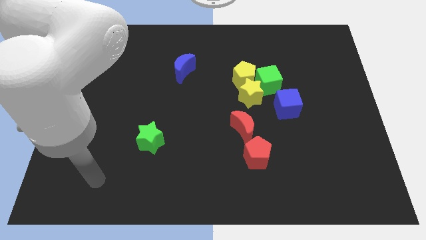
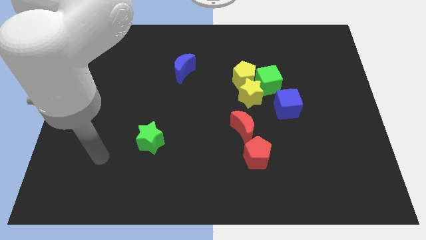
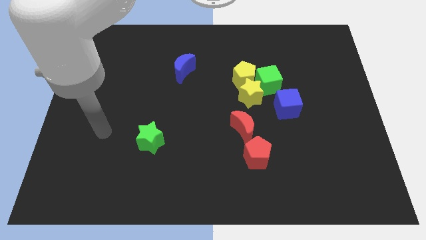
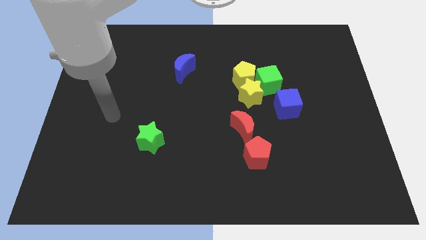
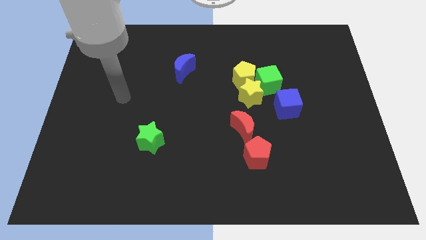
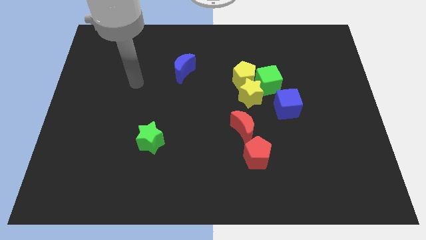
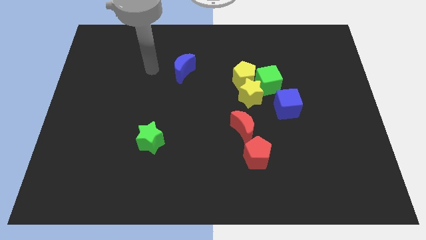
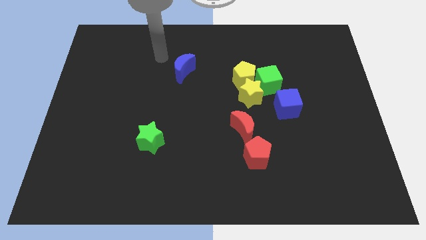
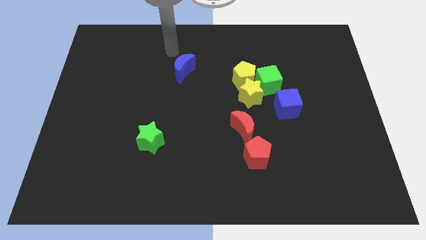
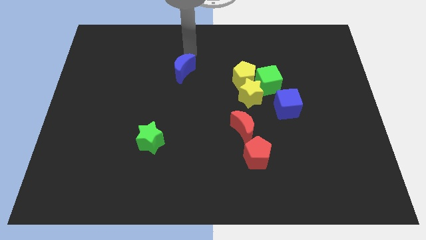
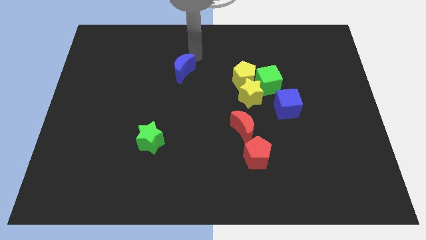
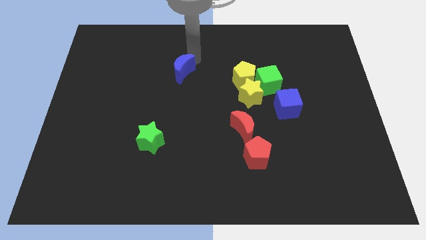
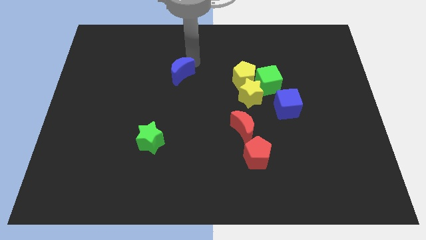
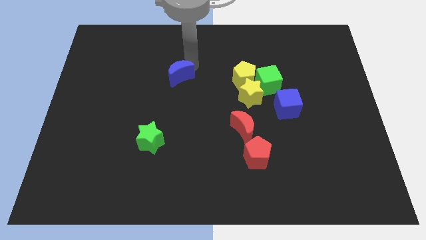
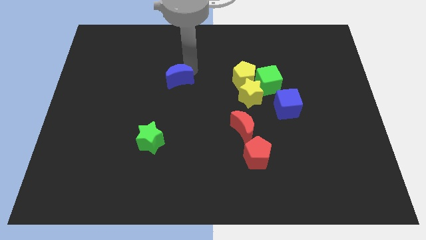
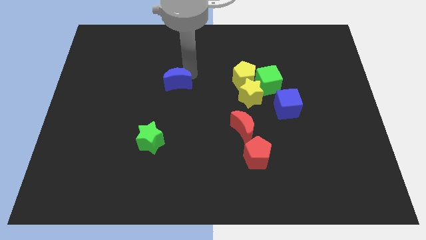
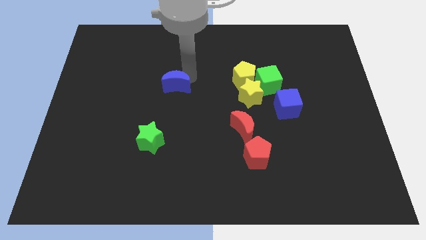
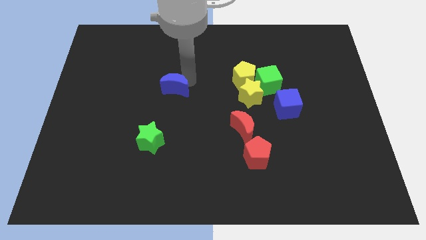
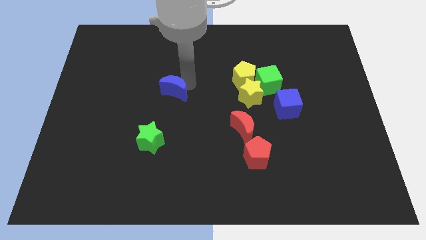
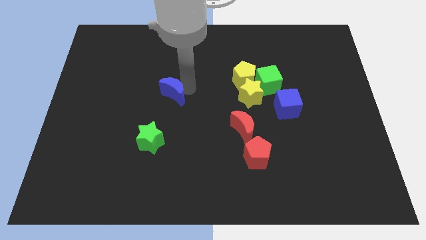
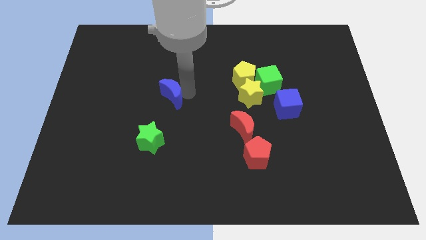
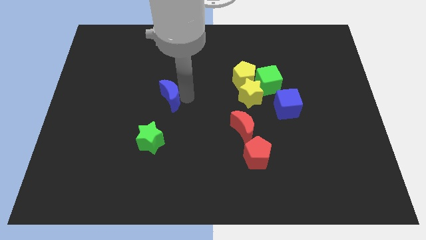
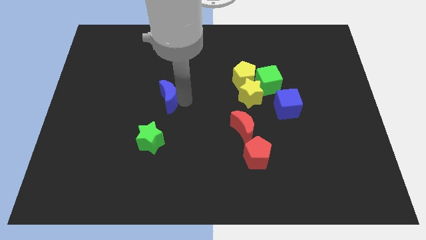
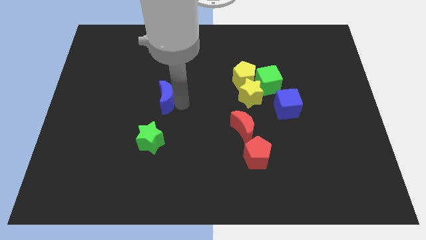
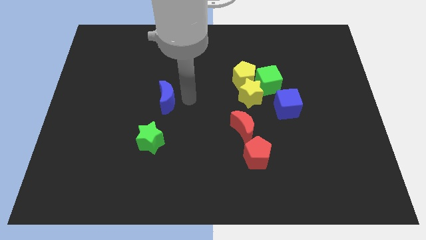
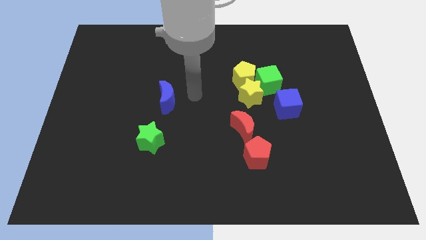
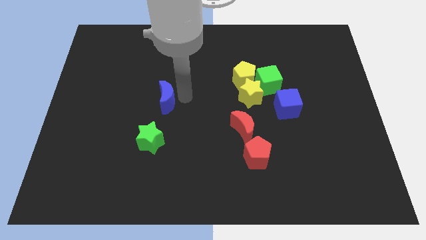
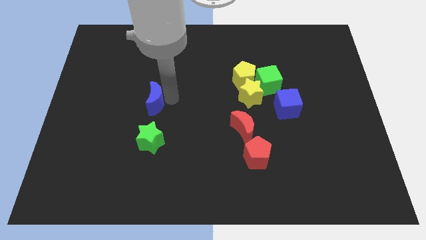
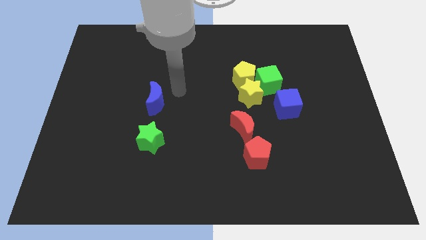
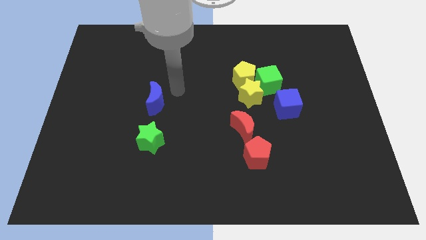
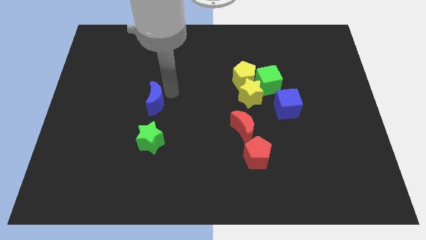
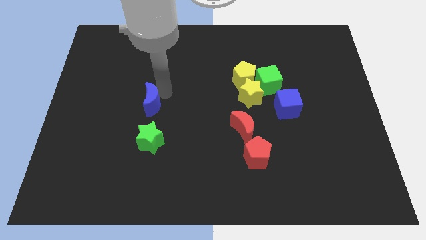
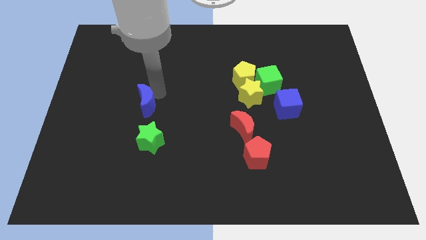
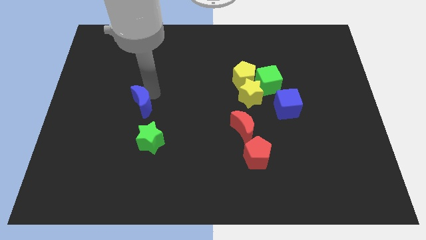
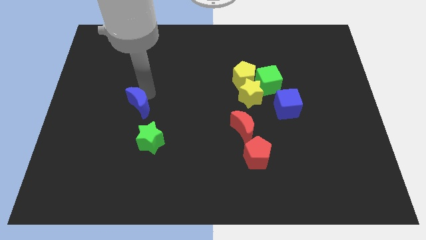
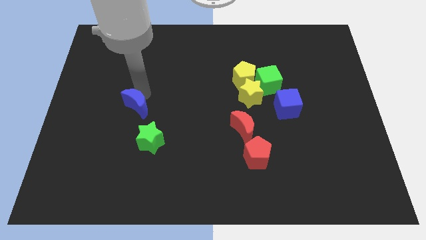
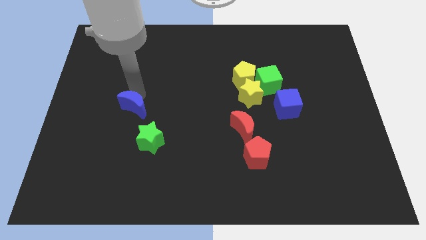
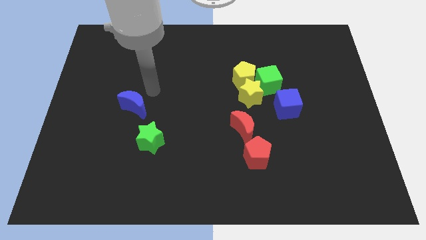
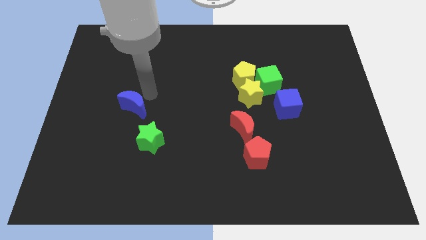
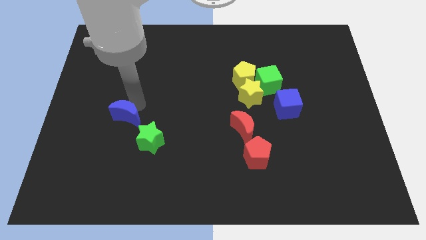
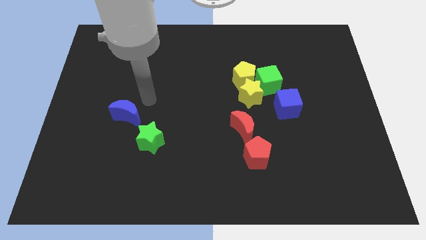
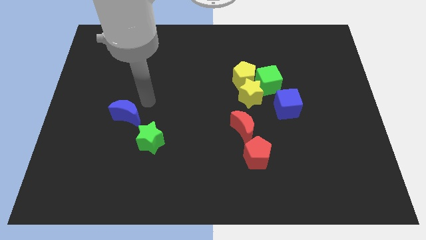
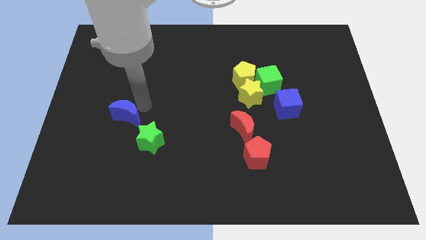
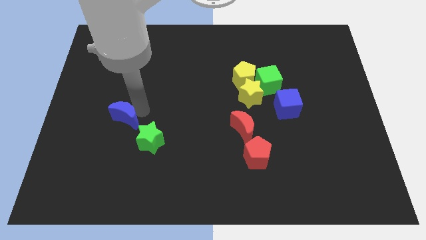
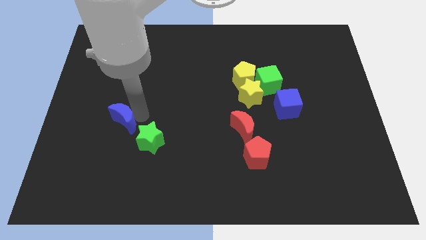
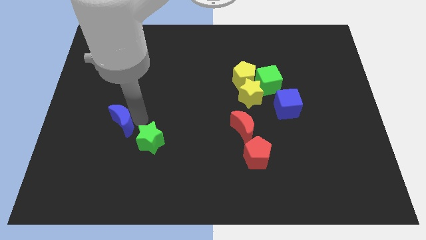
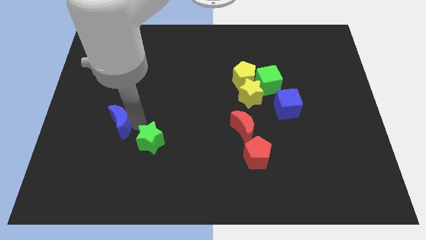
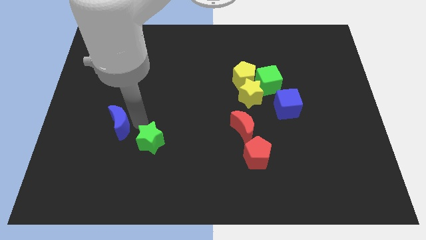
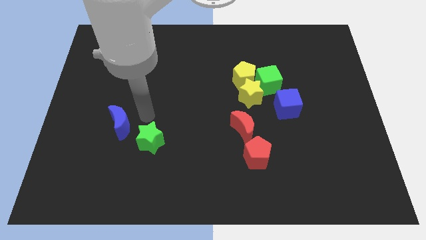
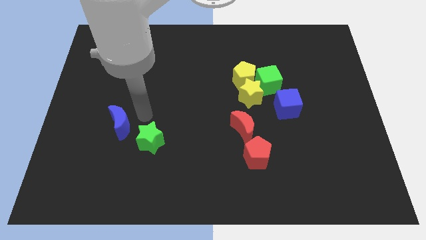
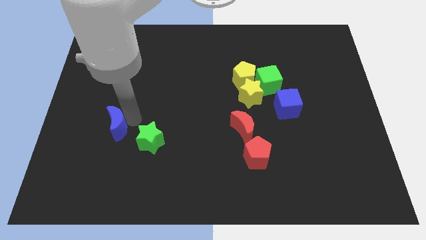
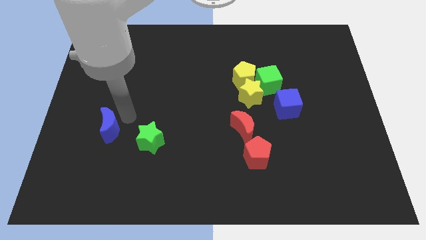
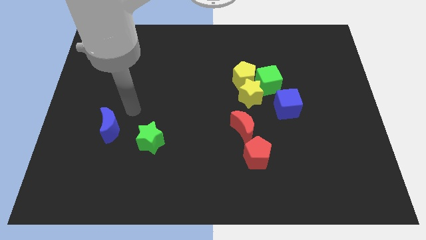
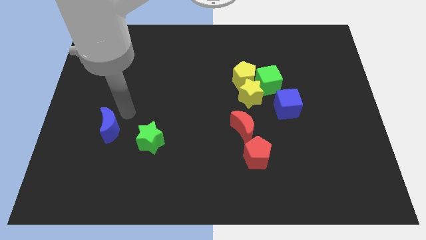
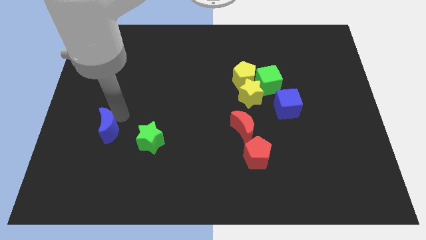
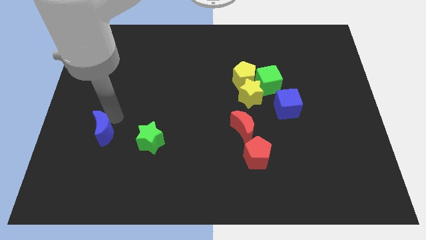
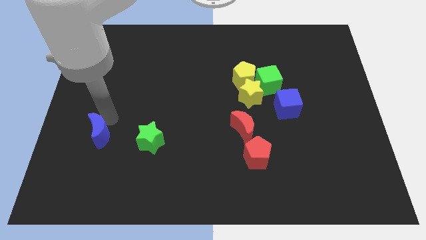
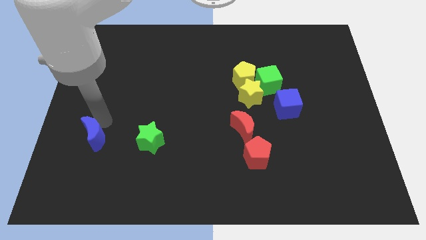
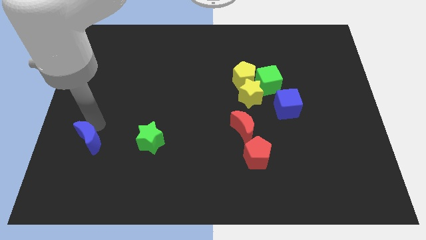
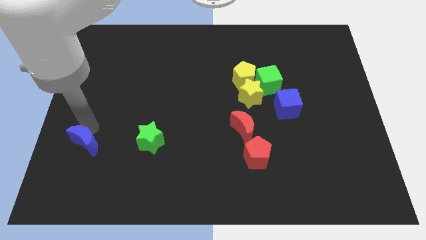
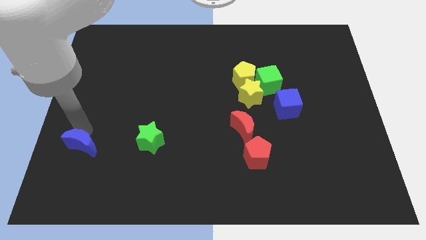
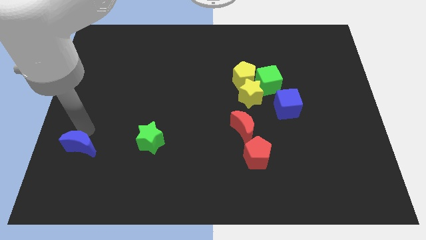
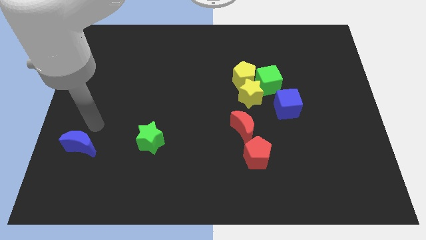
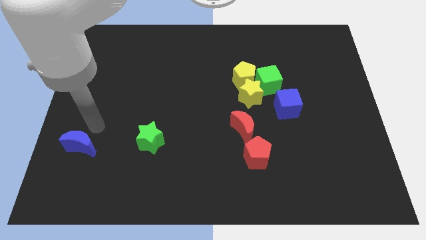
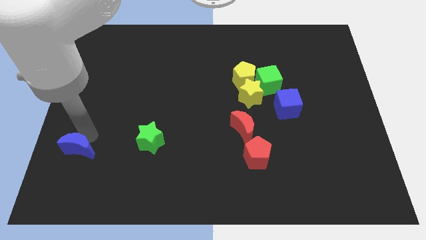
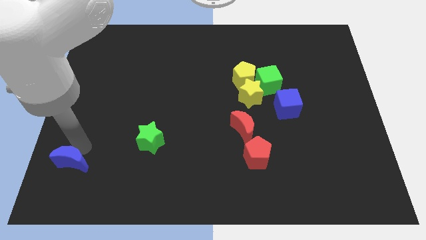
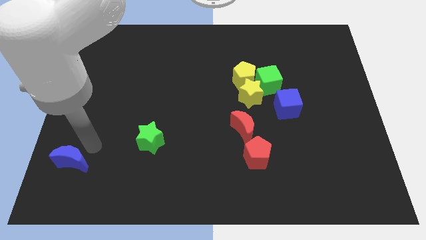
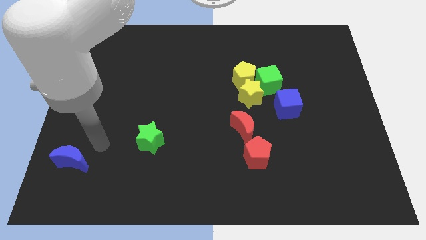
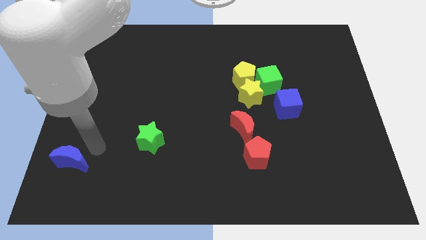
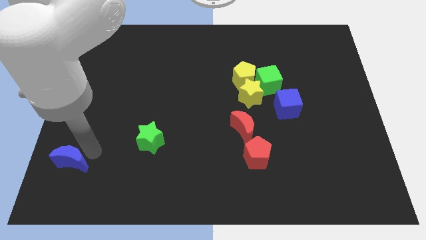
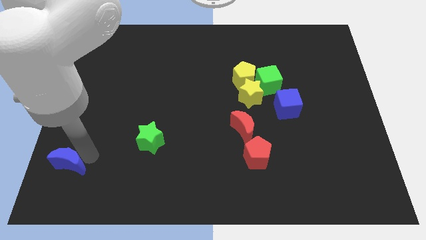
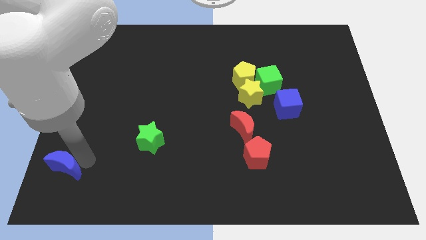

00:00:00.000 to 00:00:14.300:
slide the blue moon to the bottom left corner
